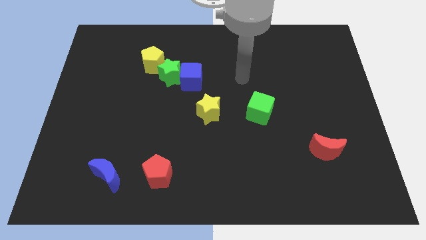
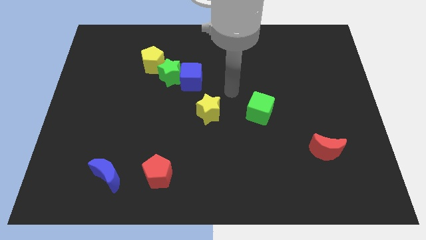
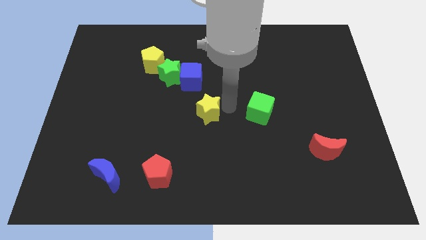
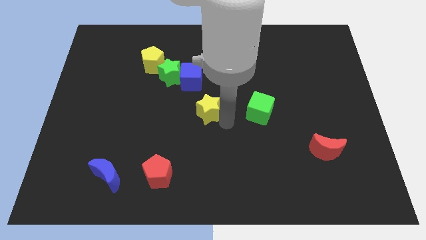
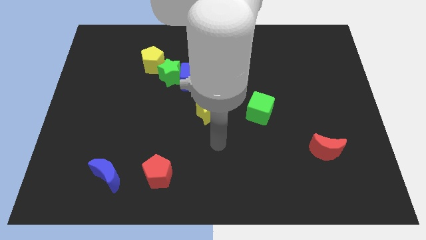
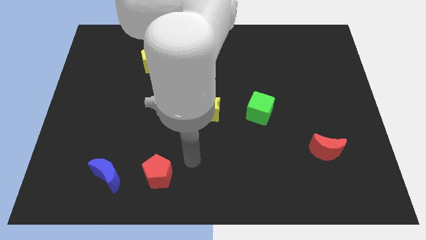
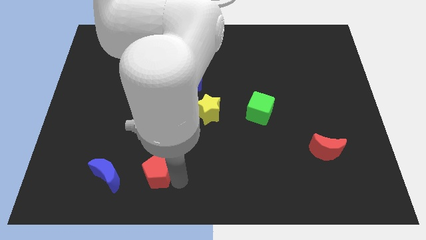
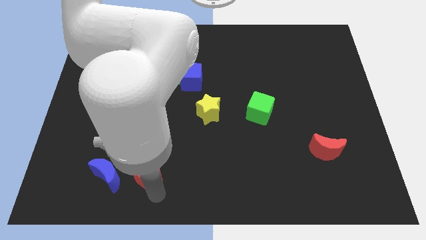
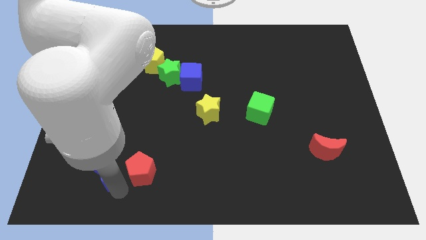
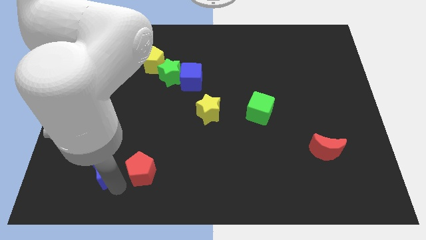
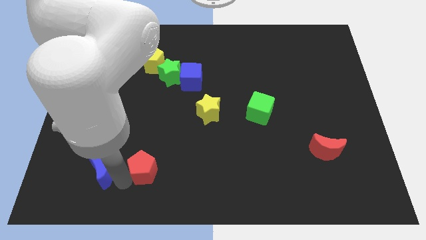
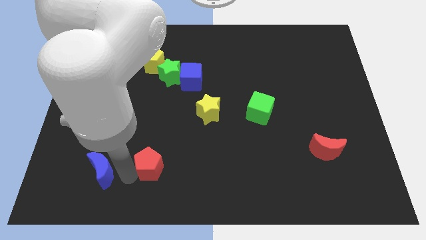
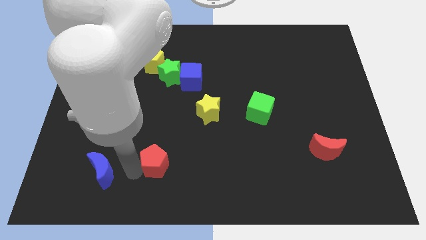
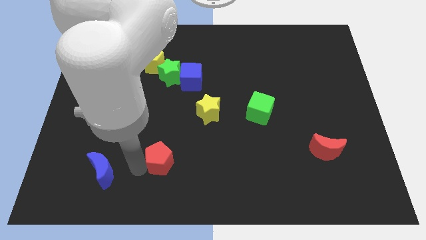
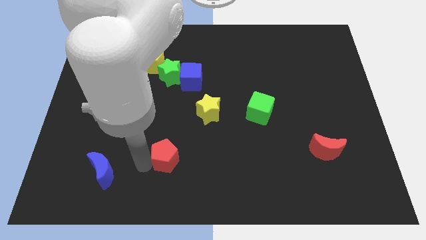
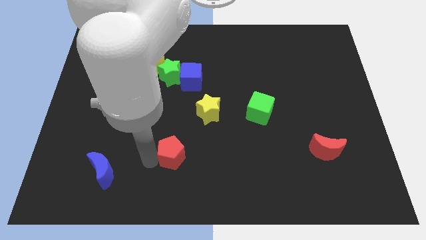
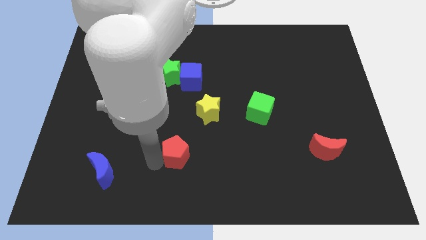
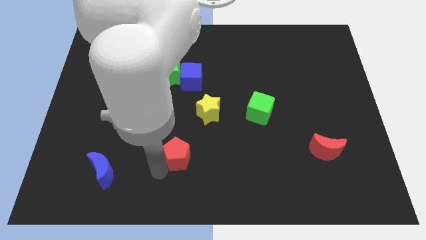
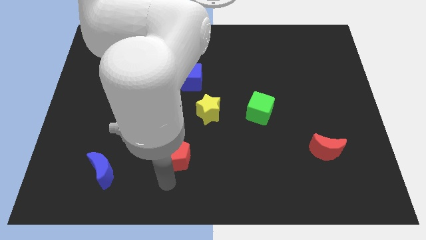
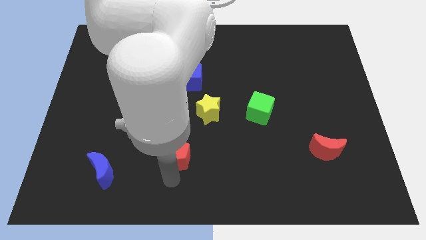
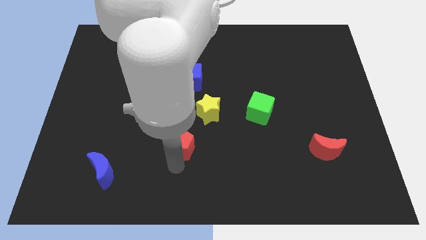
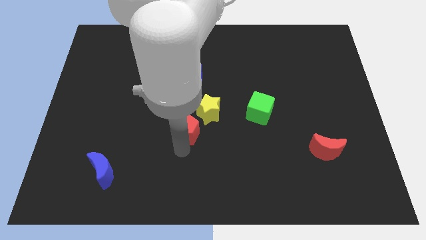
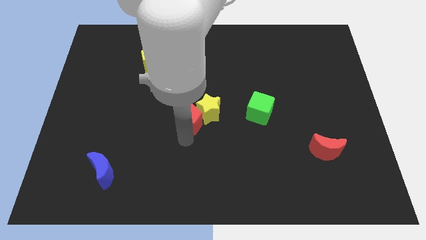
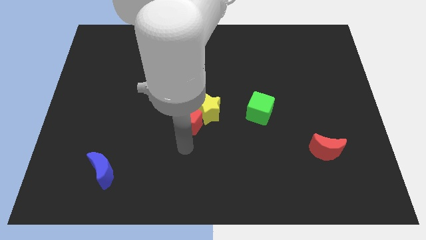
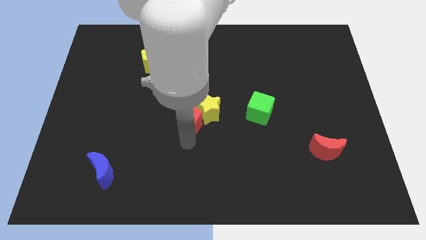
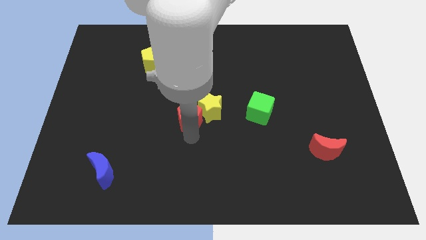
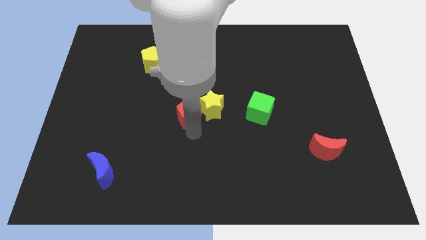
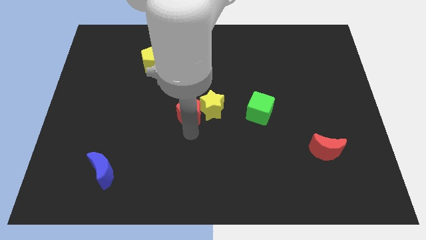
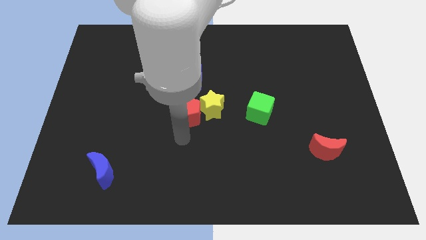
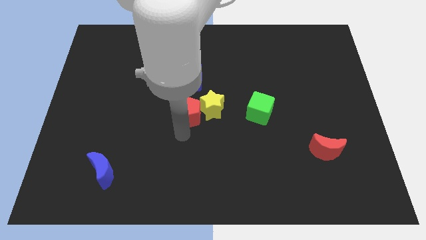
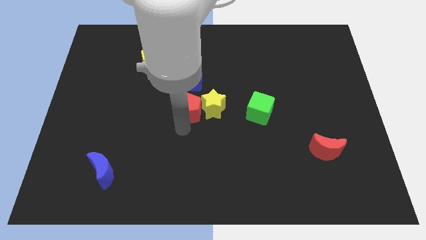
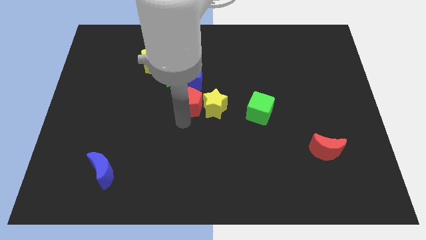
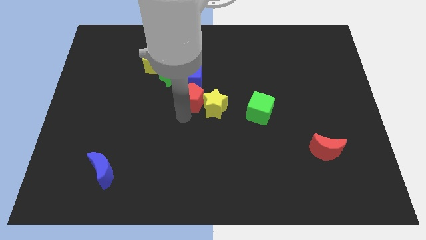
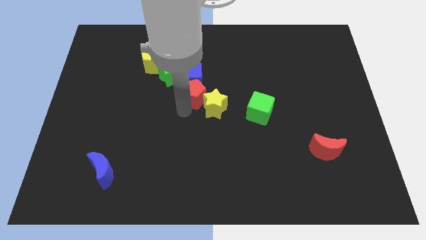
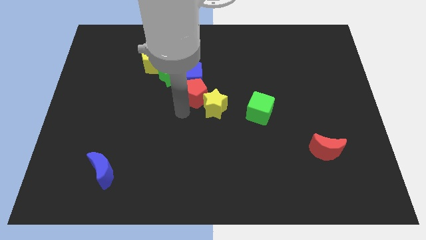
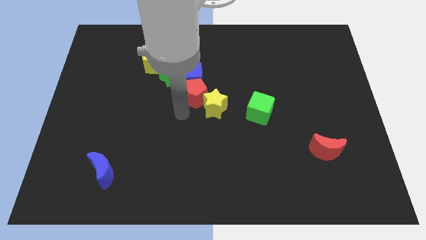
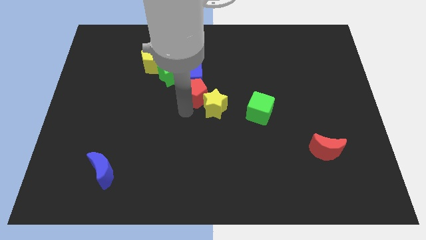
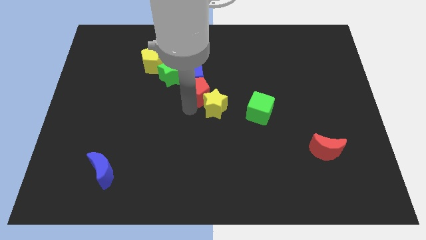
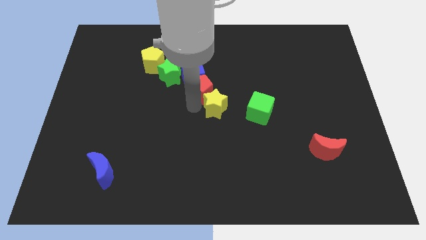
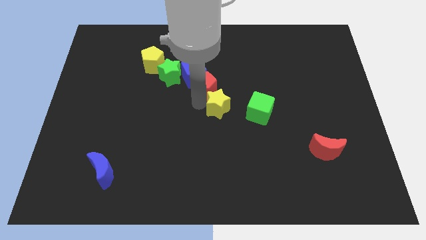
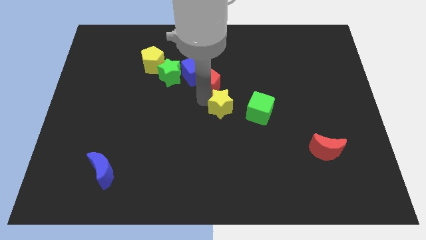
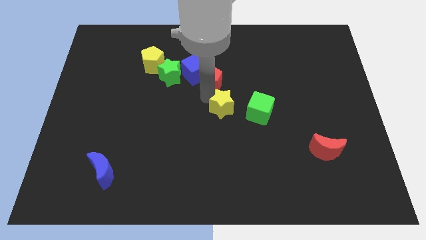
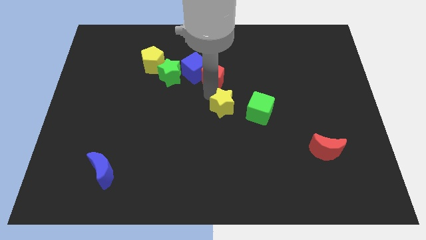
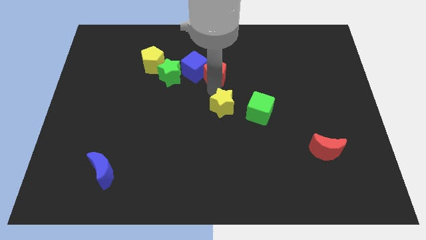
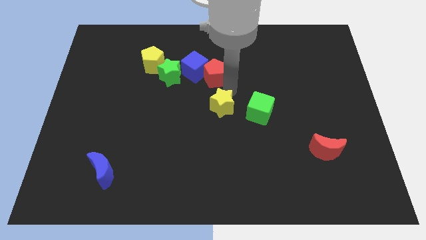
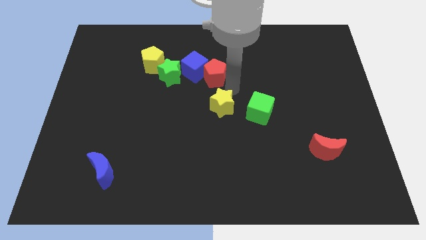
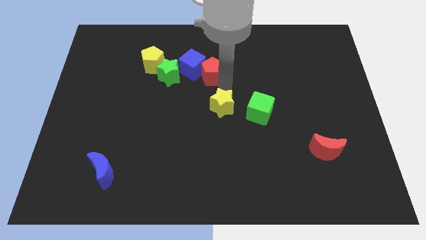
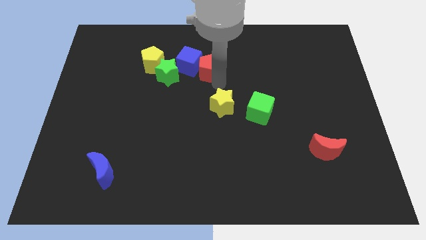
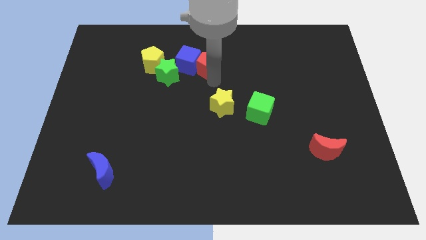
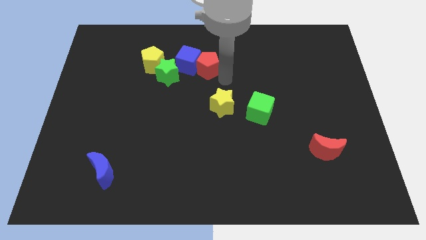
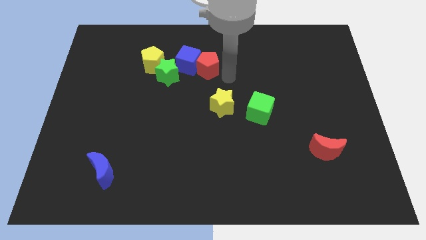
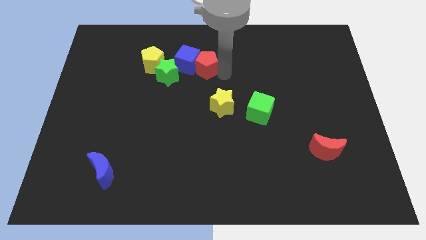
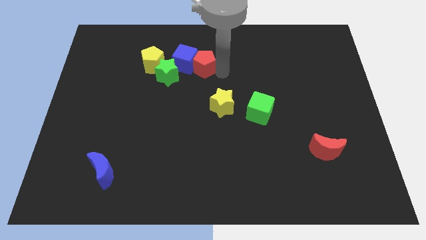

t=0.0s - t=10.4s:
push the red pentagon to the top right side of the green star

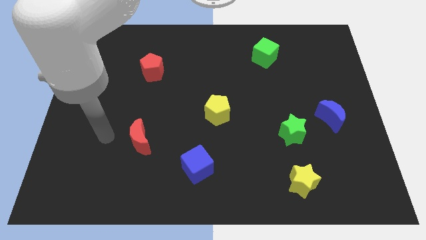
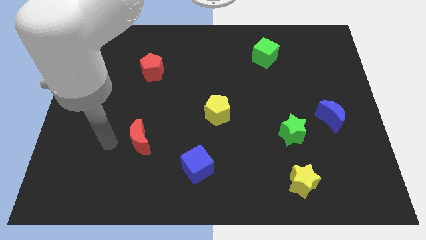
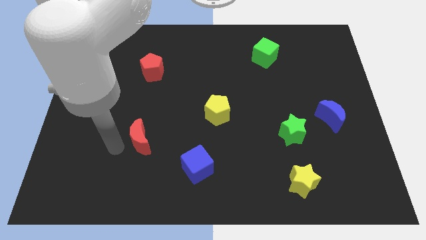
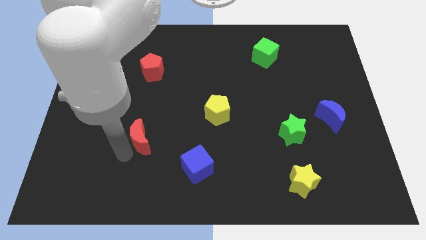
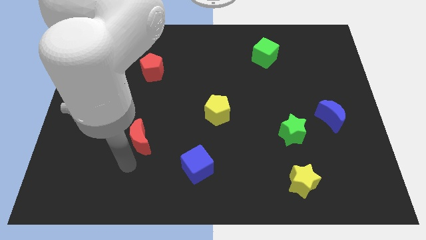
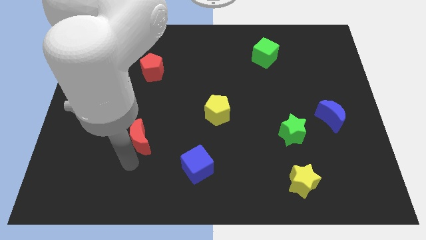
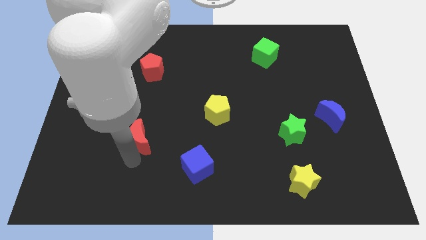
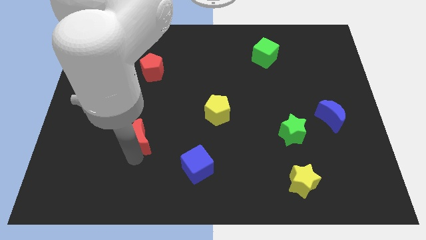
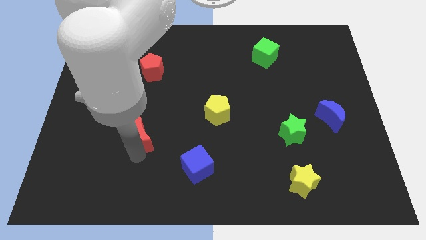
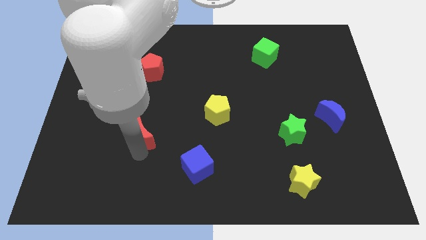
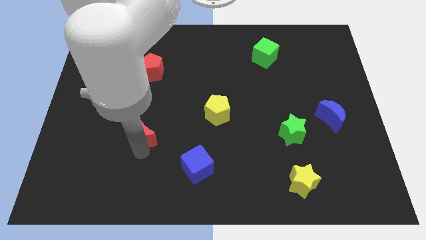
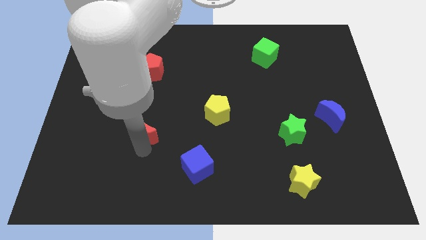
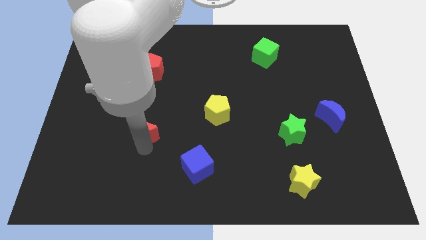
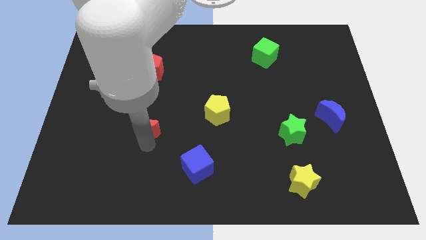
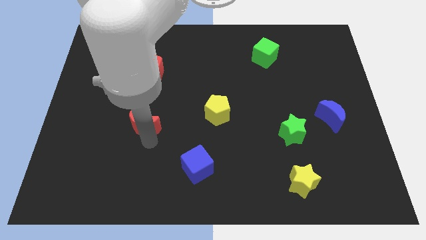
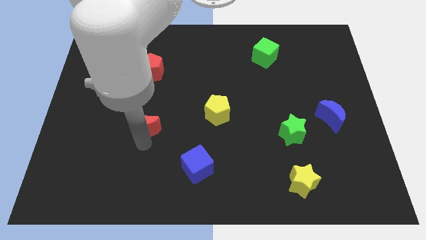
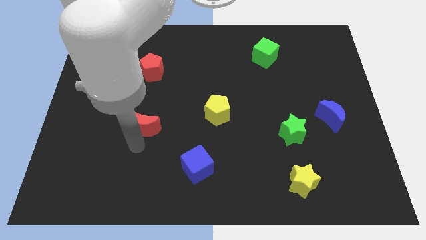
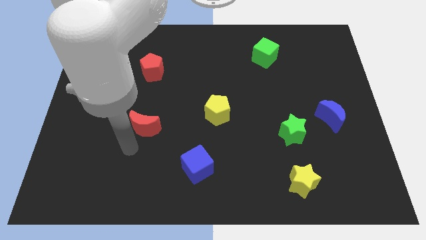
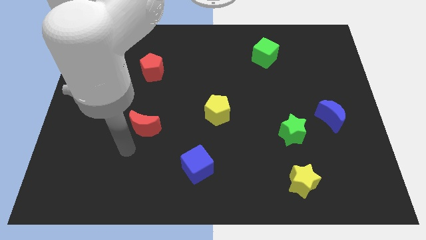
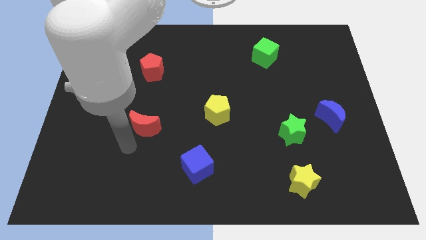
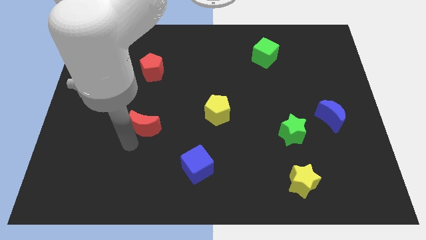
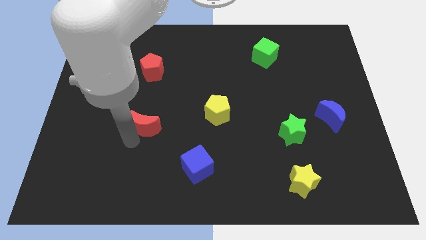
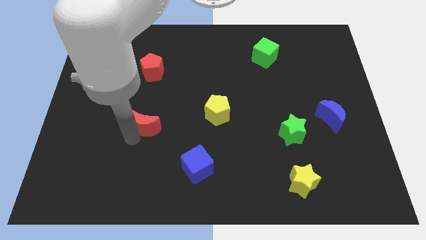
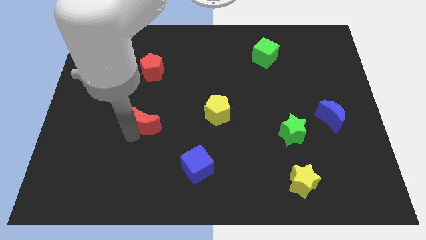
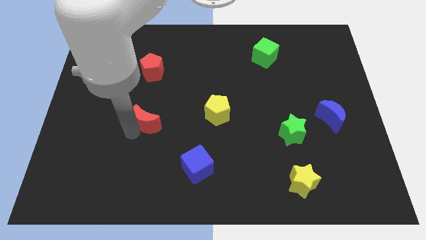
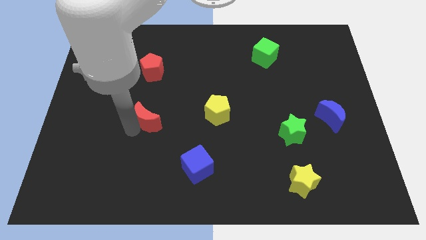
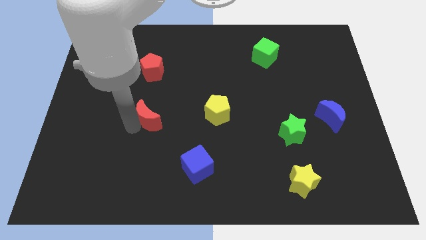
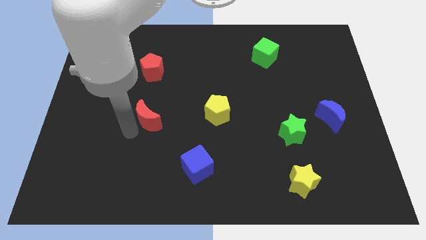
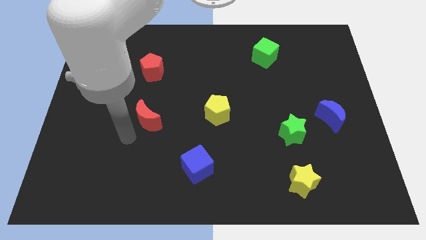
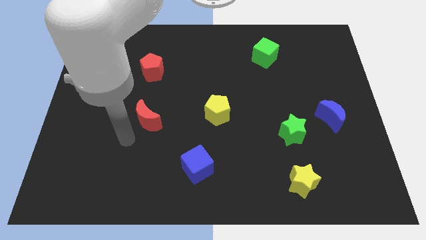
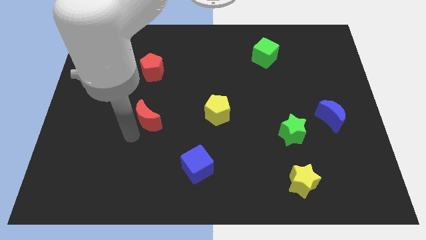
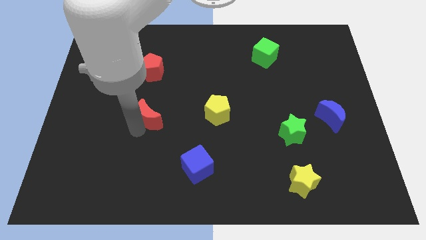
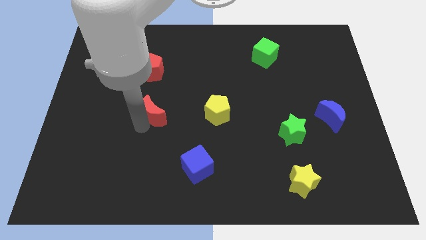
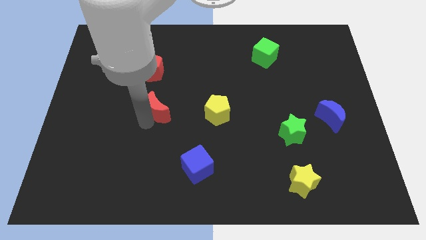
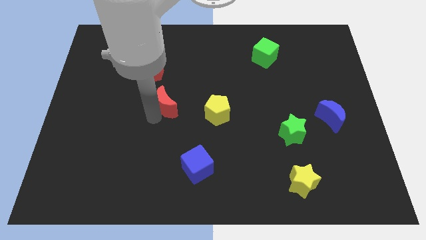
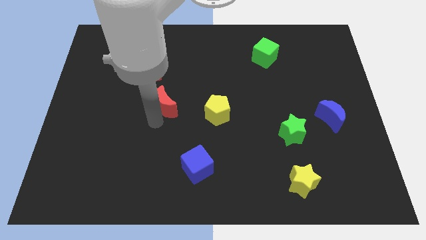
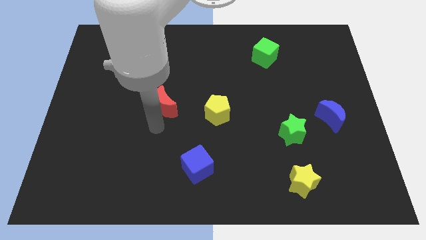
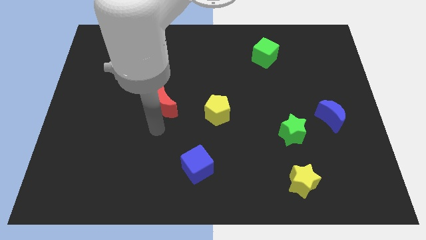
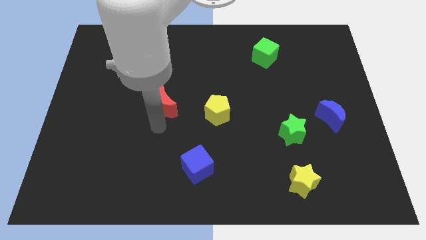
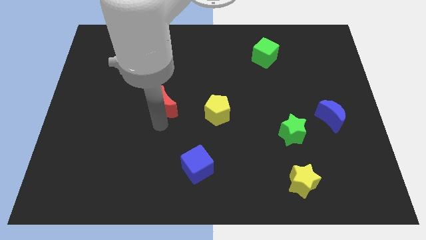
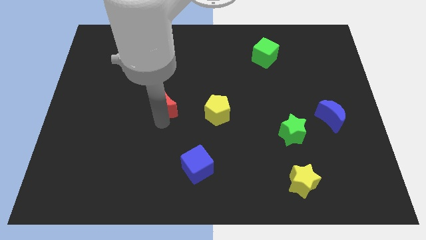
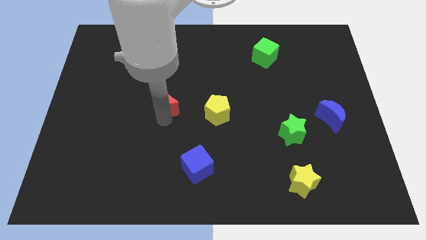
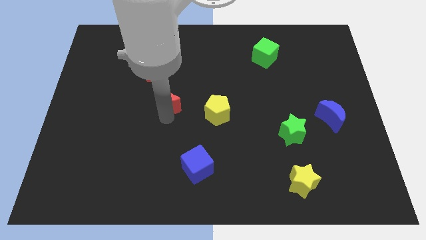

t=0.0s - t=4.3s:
push the red moon to the bottom right of the red pentagon
